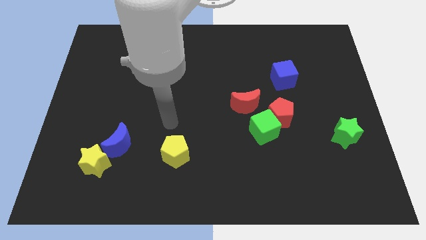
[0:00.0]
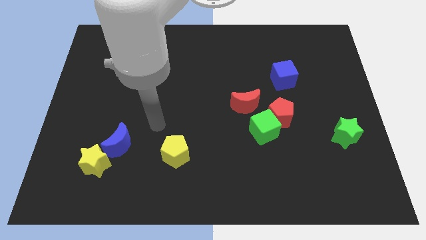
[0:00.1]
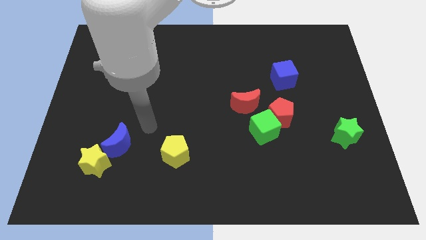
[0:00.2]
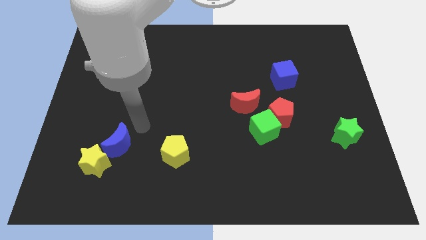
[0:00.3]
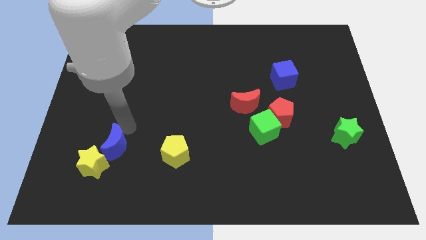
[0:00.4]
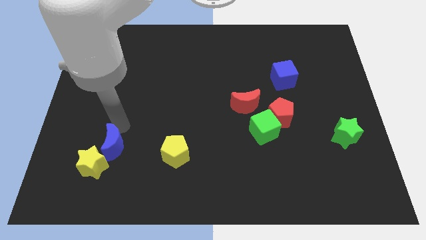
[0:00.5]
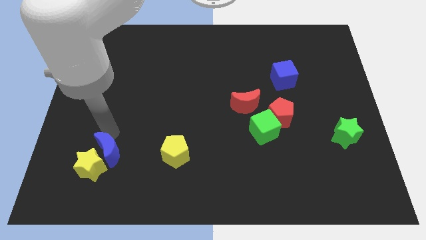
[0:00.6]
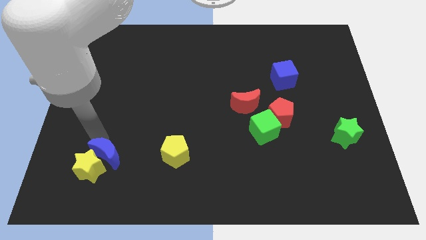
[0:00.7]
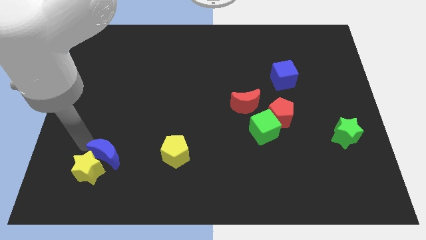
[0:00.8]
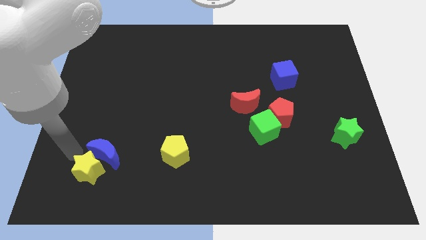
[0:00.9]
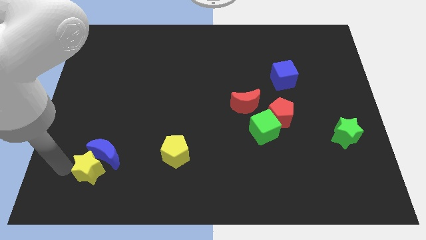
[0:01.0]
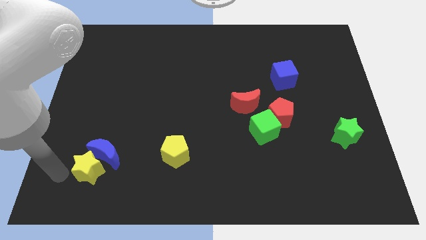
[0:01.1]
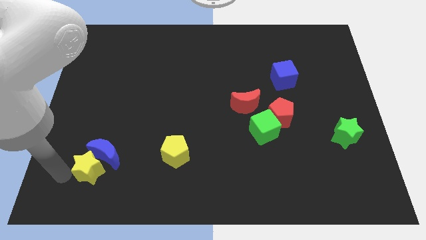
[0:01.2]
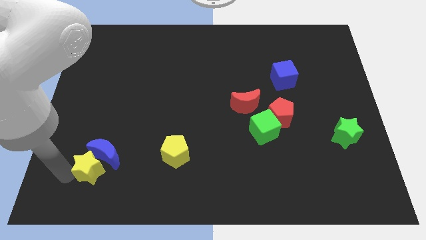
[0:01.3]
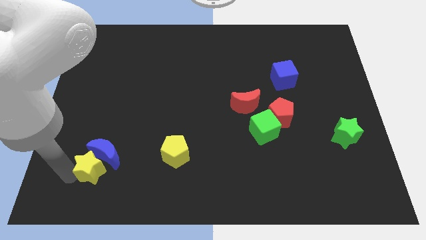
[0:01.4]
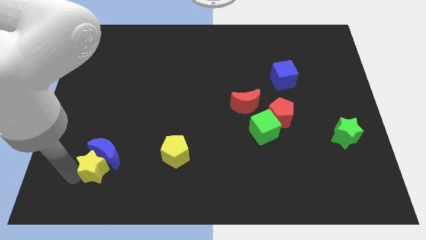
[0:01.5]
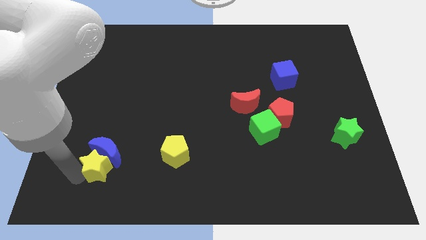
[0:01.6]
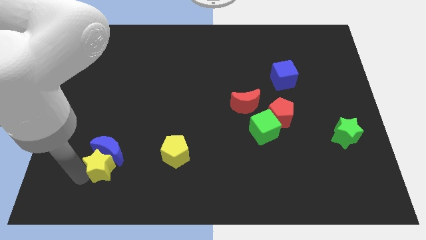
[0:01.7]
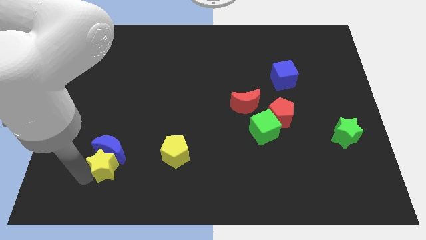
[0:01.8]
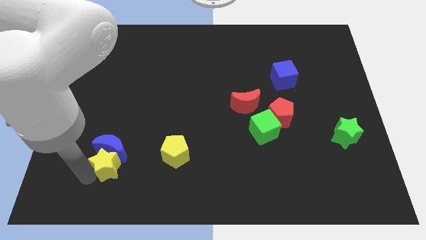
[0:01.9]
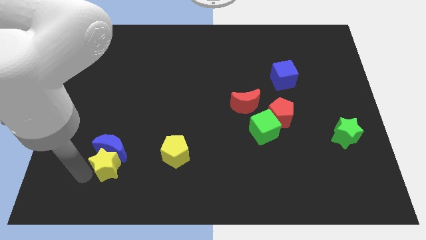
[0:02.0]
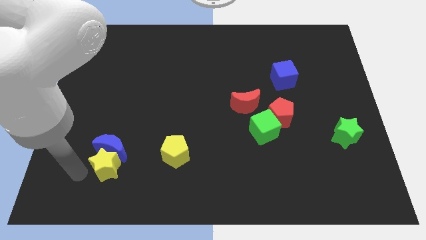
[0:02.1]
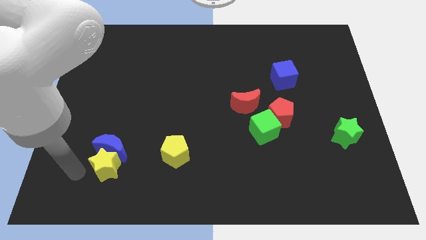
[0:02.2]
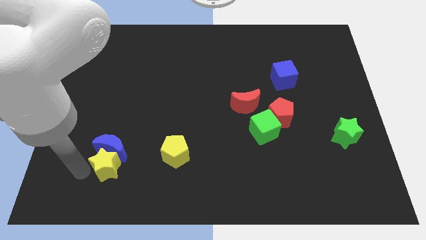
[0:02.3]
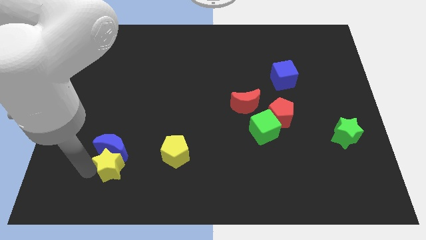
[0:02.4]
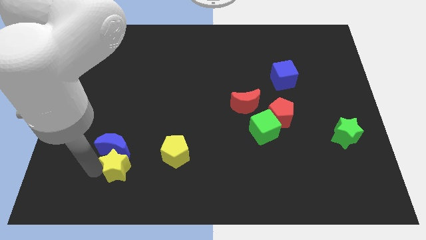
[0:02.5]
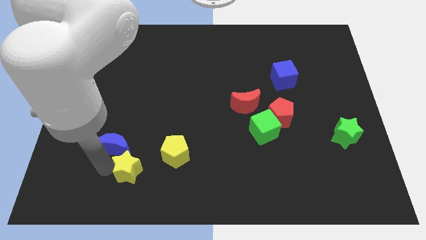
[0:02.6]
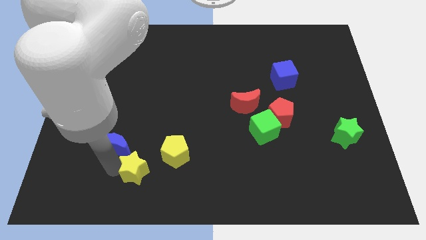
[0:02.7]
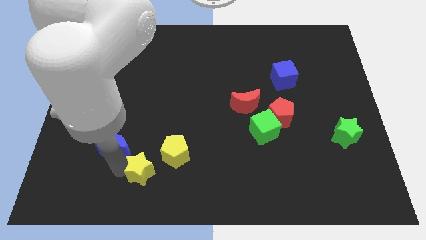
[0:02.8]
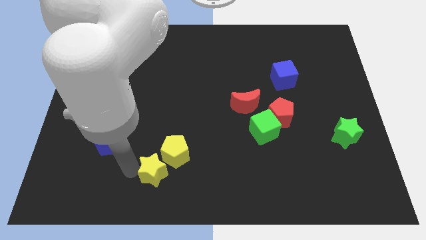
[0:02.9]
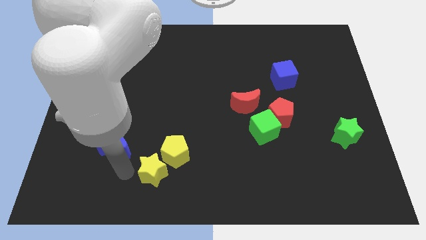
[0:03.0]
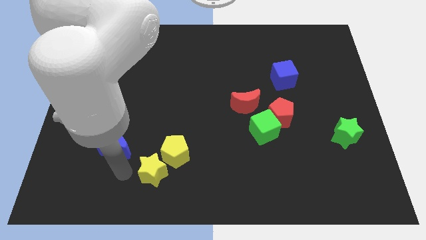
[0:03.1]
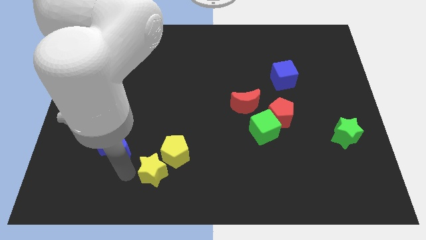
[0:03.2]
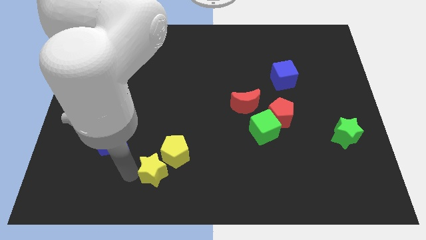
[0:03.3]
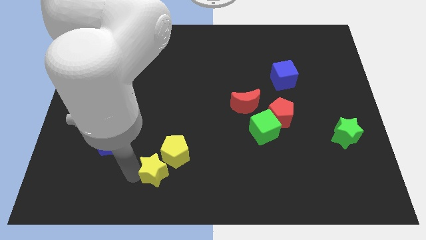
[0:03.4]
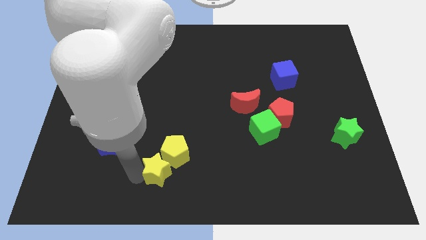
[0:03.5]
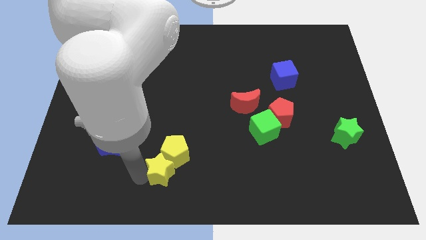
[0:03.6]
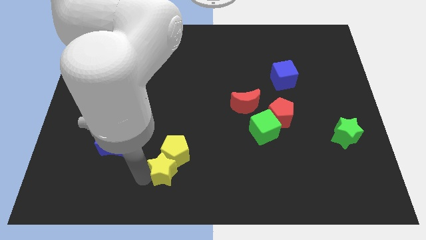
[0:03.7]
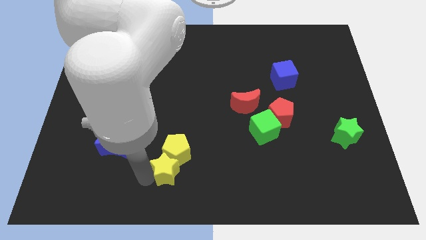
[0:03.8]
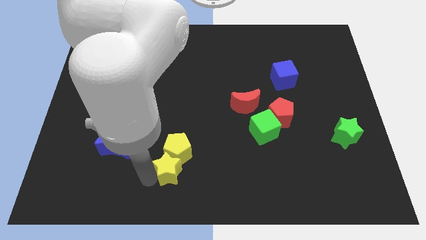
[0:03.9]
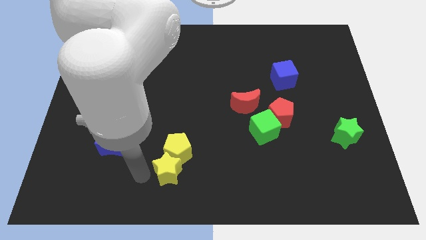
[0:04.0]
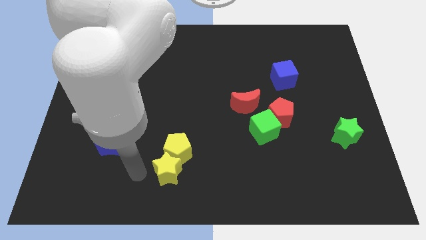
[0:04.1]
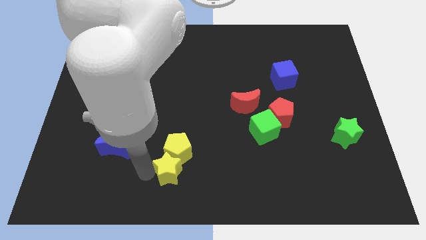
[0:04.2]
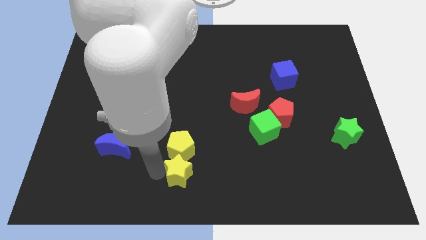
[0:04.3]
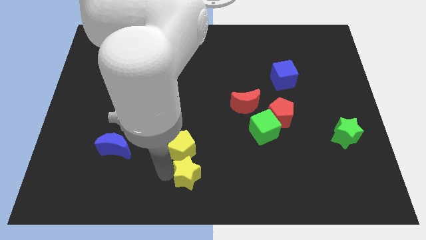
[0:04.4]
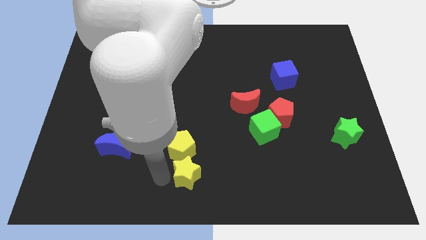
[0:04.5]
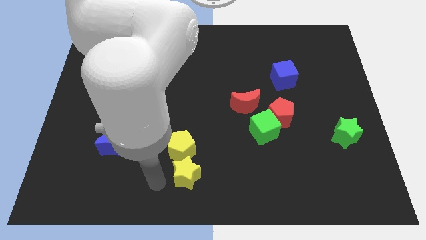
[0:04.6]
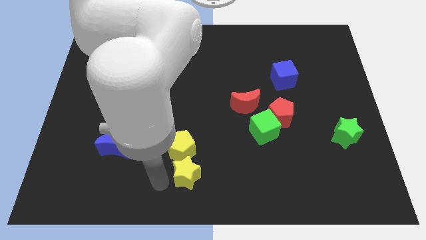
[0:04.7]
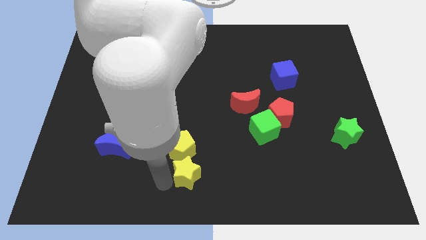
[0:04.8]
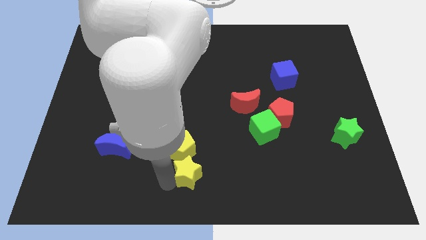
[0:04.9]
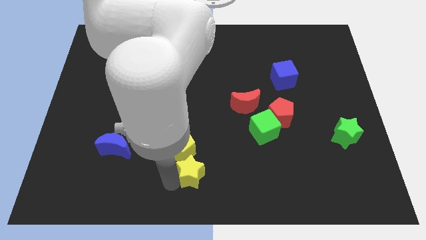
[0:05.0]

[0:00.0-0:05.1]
push the yellow star to the right

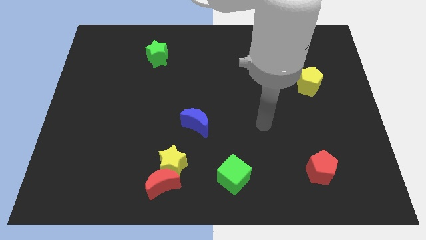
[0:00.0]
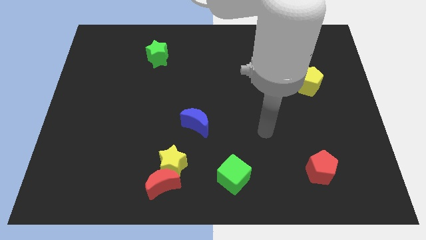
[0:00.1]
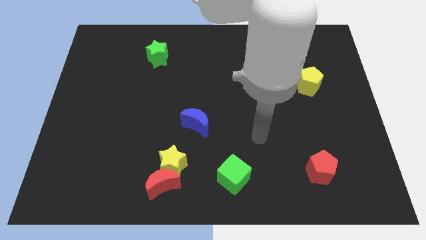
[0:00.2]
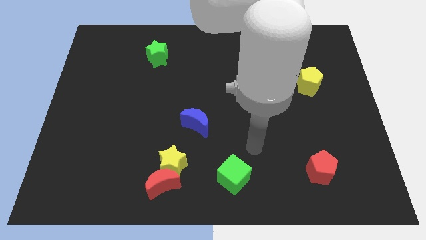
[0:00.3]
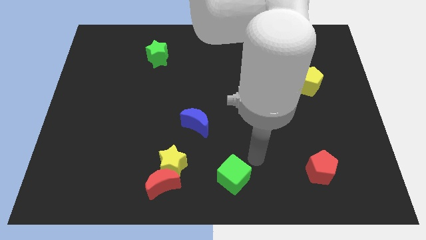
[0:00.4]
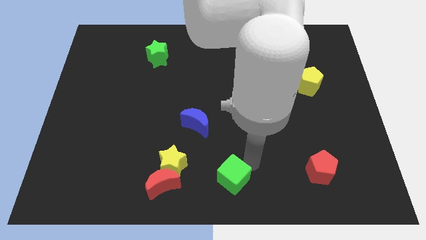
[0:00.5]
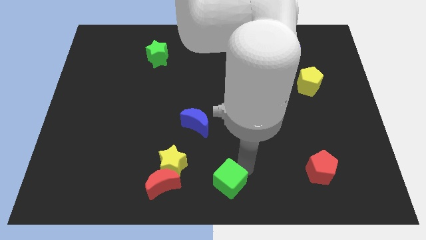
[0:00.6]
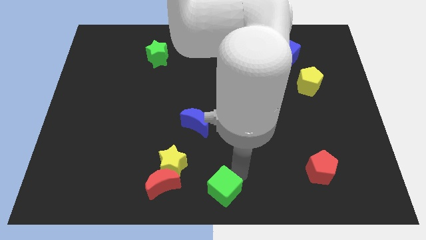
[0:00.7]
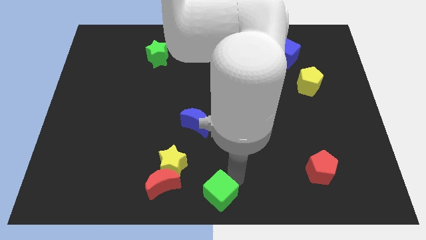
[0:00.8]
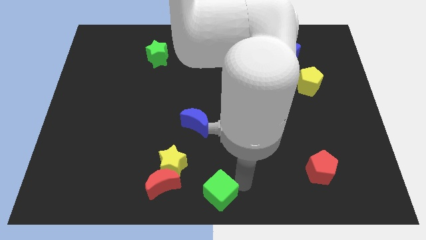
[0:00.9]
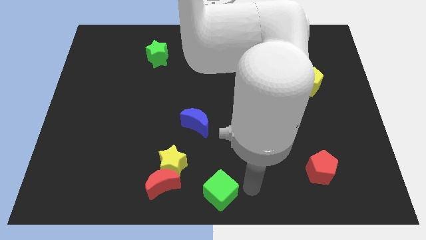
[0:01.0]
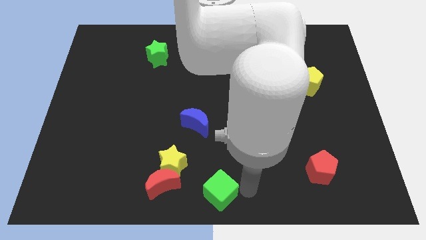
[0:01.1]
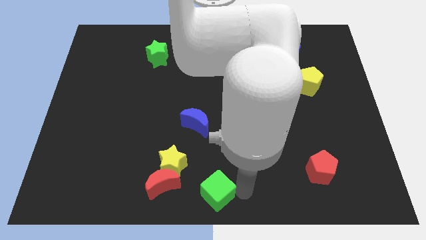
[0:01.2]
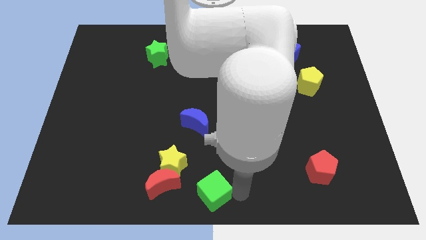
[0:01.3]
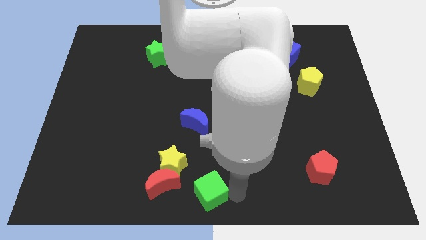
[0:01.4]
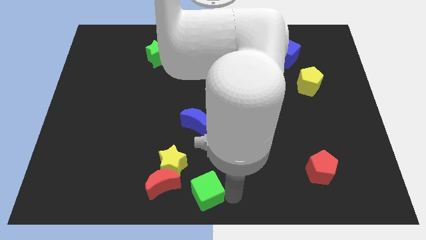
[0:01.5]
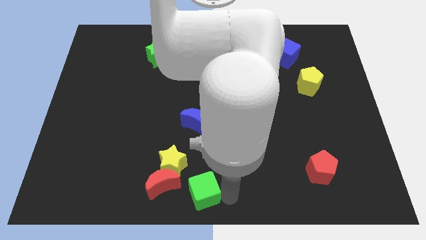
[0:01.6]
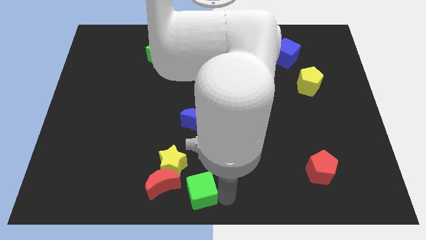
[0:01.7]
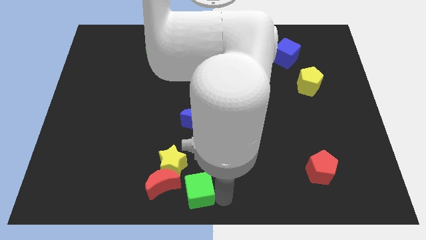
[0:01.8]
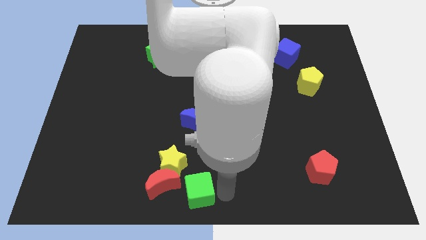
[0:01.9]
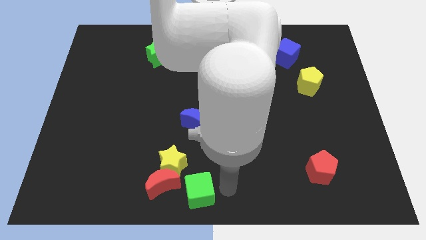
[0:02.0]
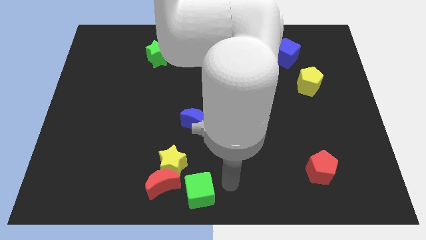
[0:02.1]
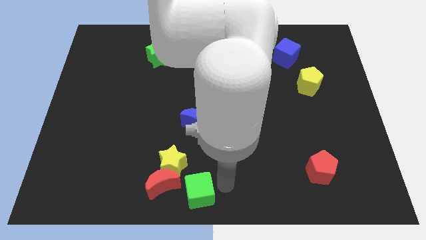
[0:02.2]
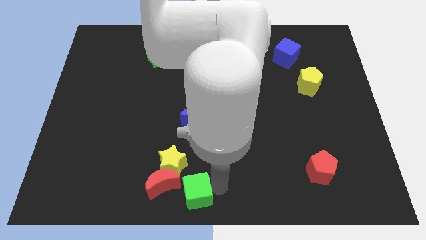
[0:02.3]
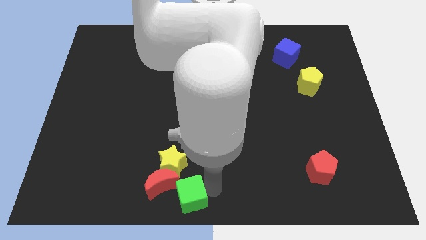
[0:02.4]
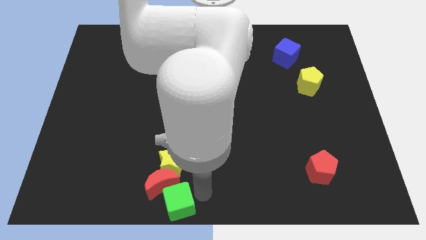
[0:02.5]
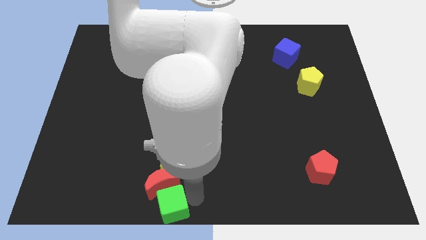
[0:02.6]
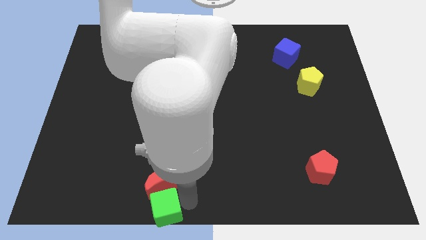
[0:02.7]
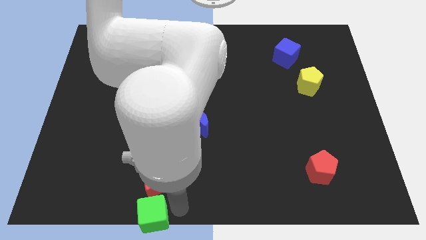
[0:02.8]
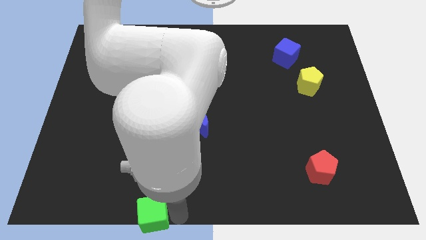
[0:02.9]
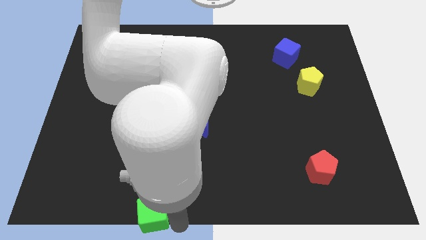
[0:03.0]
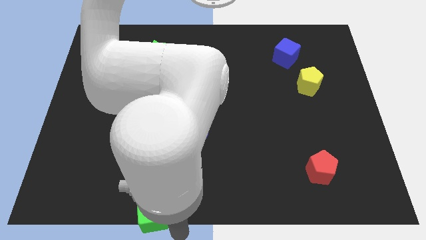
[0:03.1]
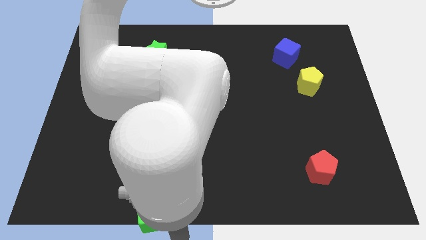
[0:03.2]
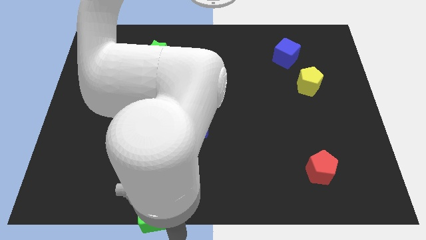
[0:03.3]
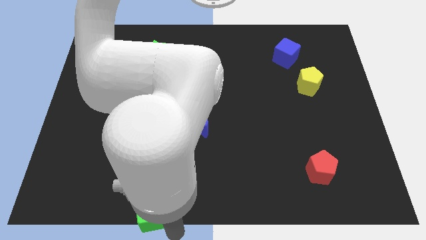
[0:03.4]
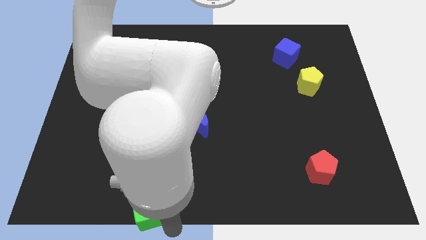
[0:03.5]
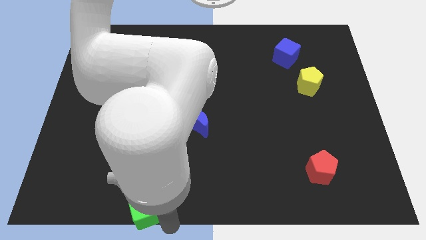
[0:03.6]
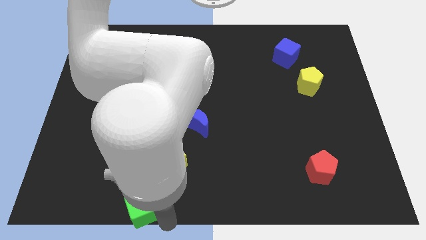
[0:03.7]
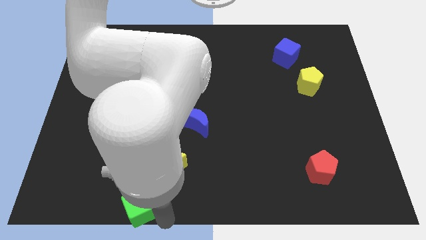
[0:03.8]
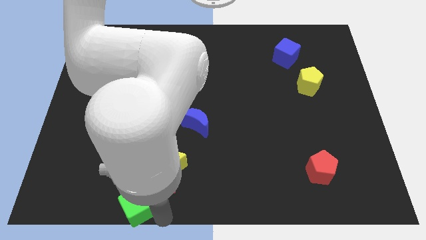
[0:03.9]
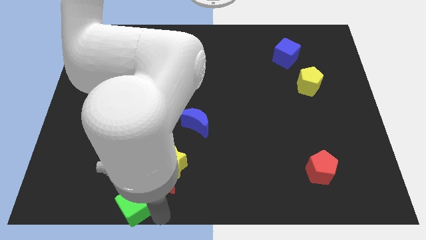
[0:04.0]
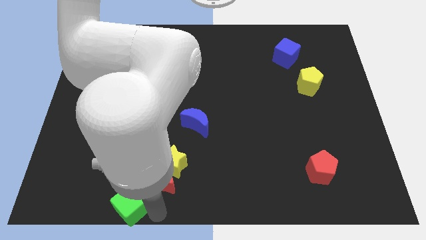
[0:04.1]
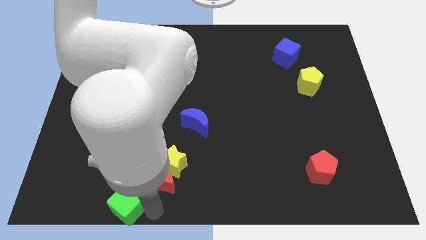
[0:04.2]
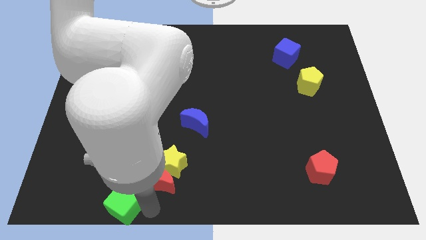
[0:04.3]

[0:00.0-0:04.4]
move the green cube to the left
